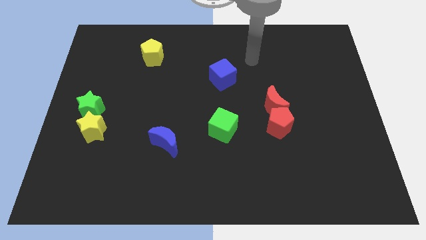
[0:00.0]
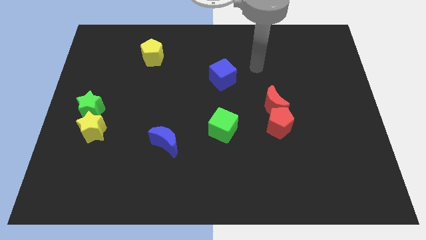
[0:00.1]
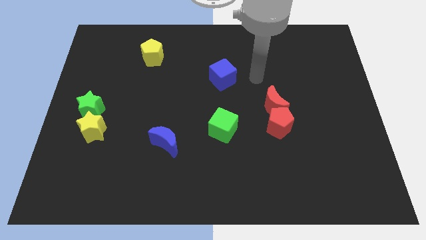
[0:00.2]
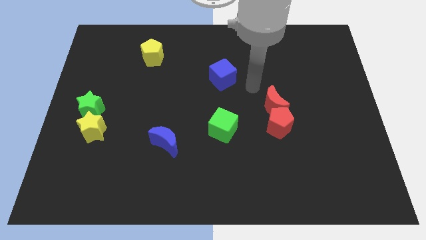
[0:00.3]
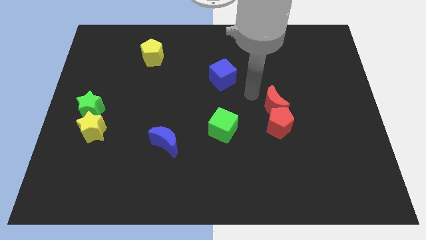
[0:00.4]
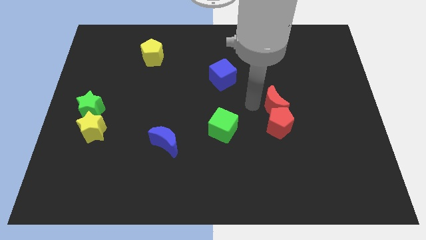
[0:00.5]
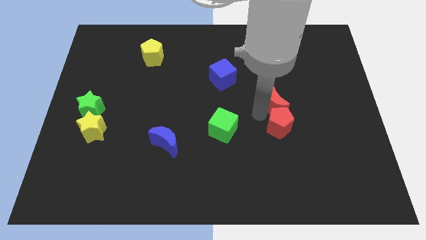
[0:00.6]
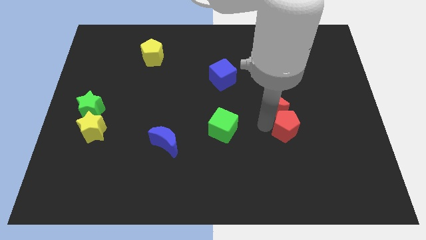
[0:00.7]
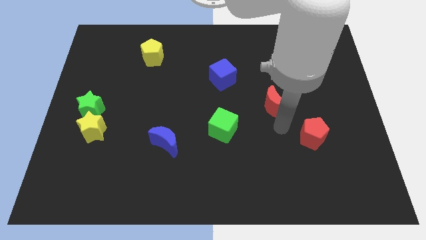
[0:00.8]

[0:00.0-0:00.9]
move the red moon away from the red pentagon

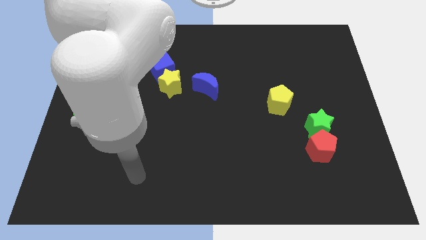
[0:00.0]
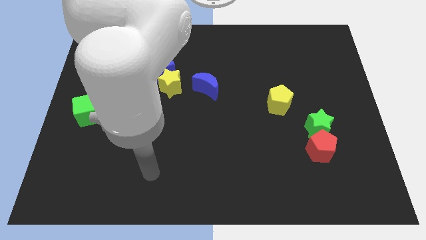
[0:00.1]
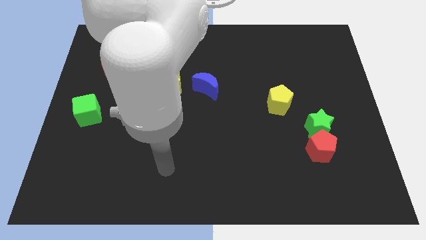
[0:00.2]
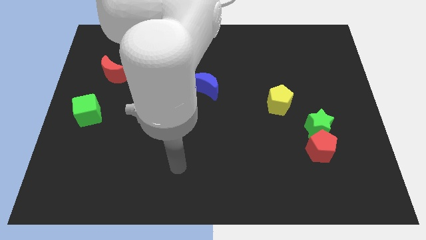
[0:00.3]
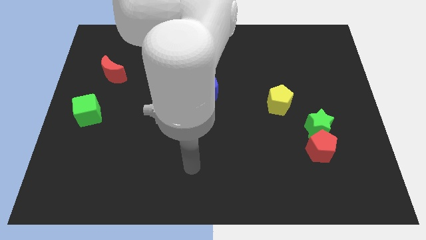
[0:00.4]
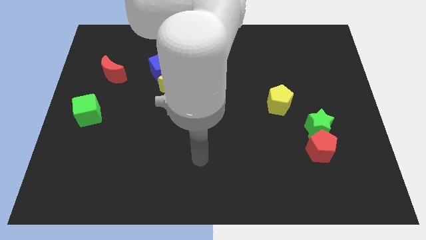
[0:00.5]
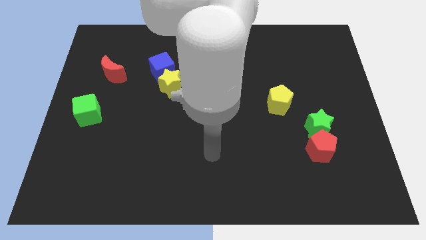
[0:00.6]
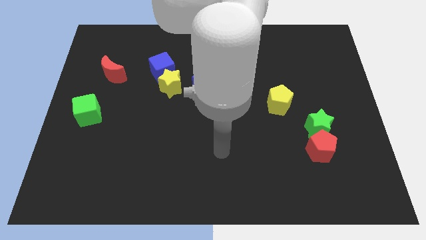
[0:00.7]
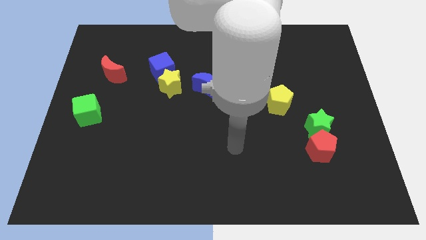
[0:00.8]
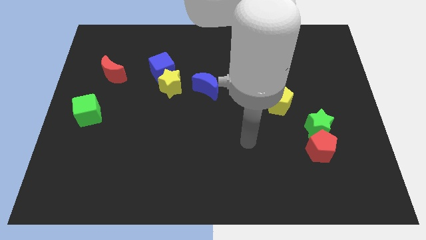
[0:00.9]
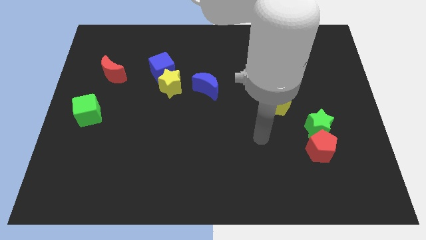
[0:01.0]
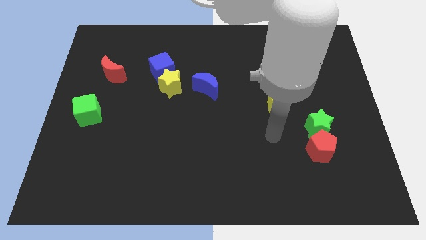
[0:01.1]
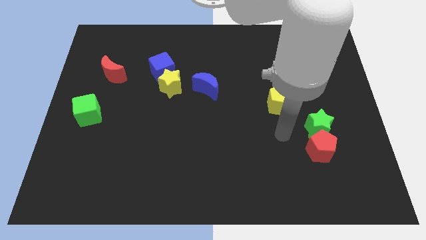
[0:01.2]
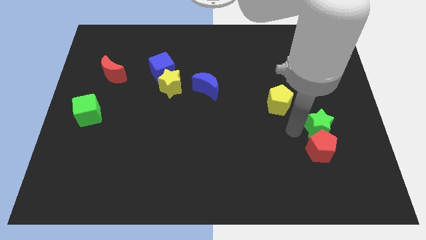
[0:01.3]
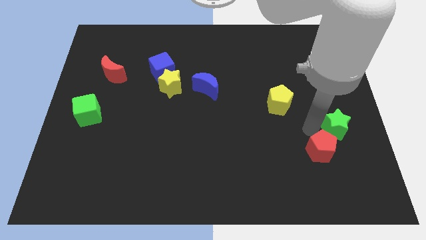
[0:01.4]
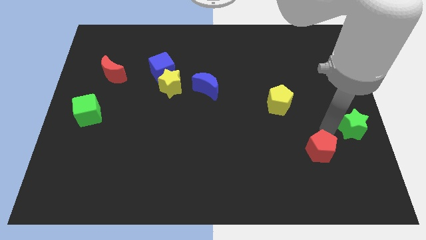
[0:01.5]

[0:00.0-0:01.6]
move the red pentagon away from the green star

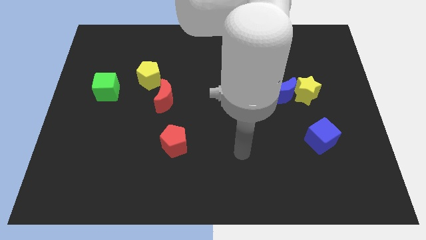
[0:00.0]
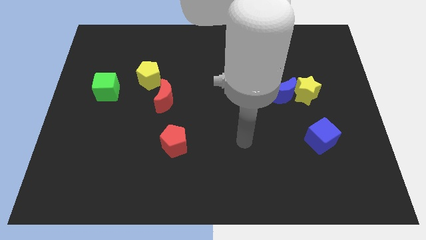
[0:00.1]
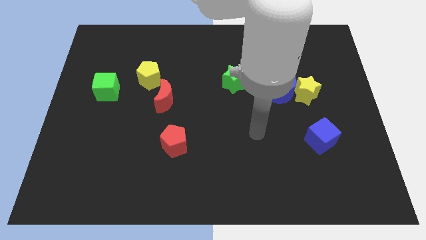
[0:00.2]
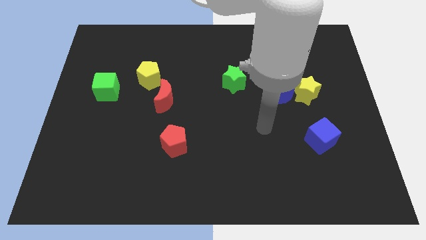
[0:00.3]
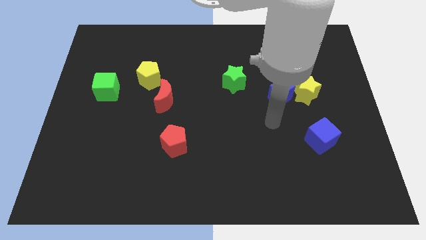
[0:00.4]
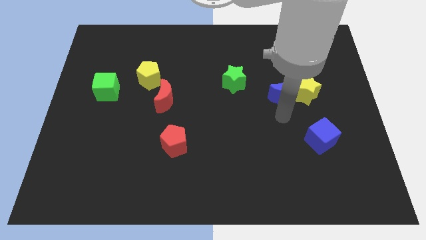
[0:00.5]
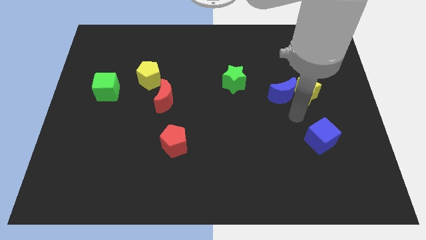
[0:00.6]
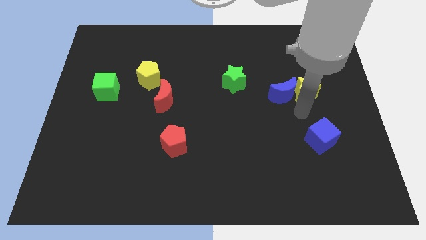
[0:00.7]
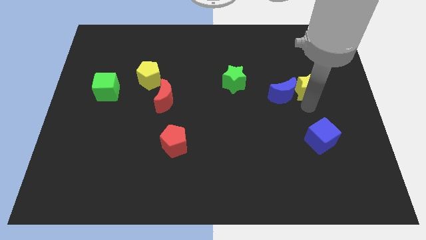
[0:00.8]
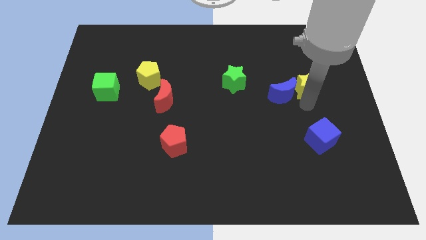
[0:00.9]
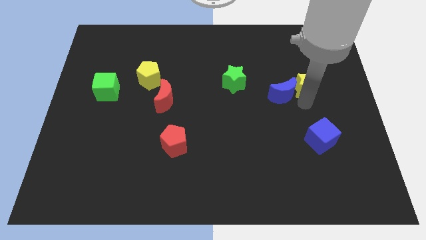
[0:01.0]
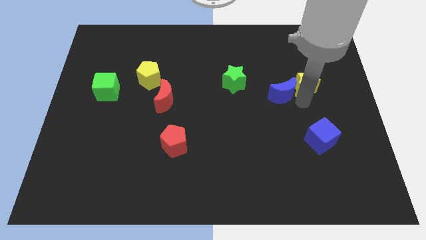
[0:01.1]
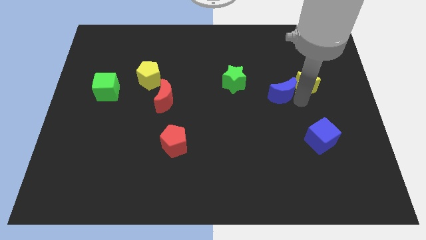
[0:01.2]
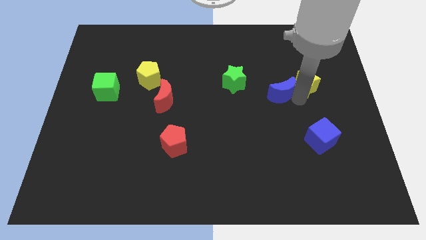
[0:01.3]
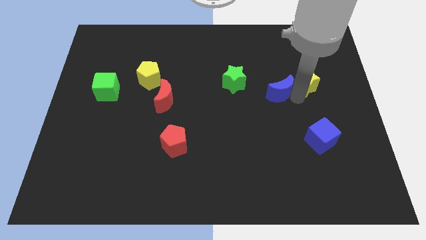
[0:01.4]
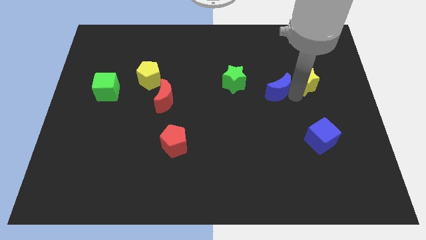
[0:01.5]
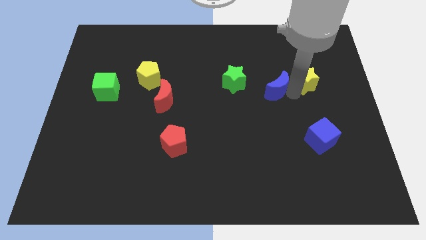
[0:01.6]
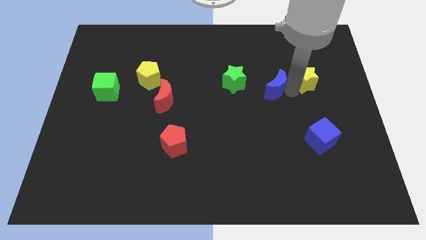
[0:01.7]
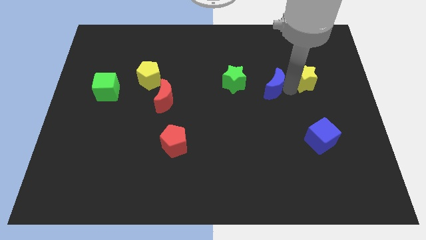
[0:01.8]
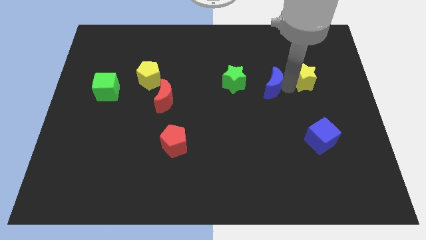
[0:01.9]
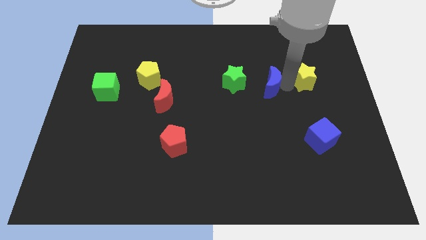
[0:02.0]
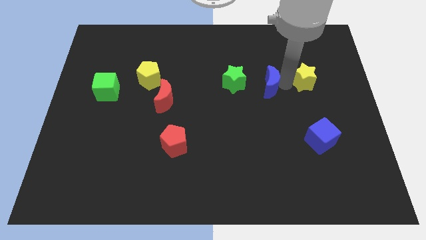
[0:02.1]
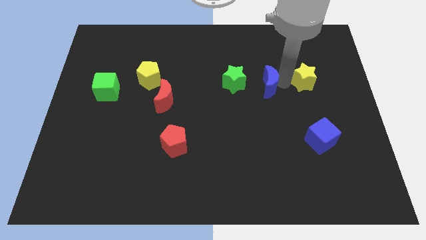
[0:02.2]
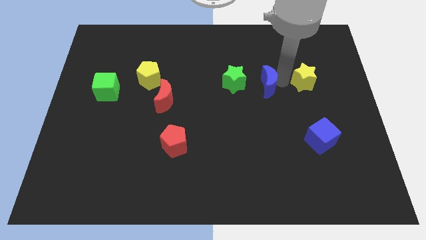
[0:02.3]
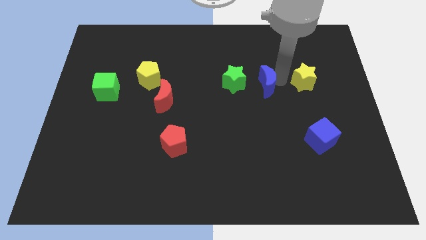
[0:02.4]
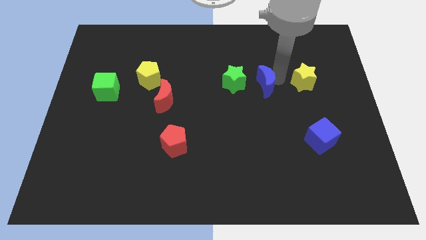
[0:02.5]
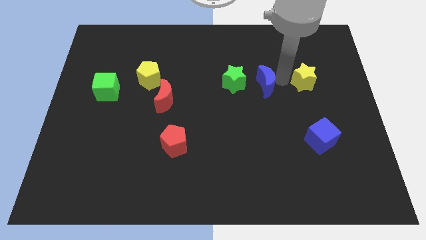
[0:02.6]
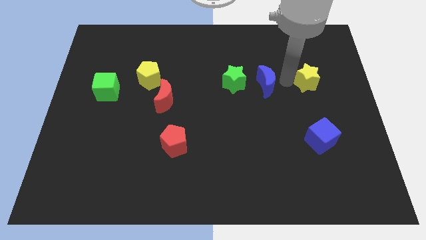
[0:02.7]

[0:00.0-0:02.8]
separate the blue moon from the yellow star

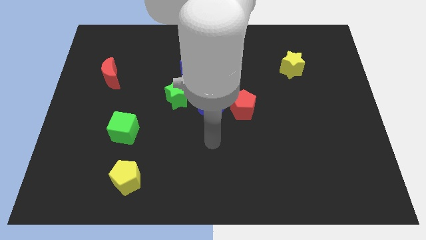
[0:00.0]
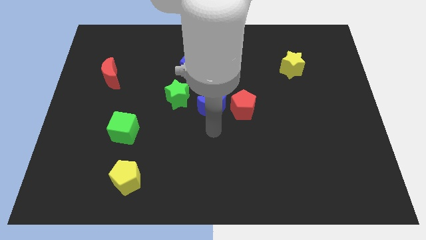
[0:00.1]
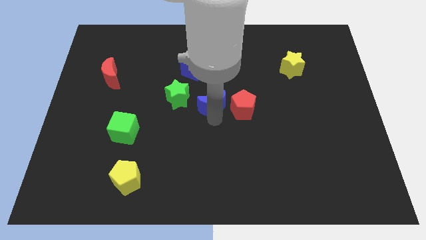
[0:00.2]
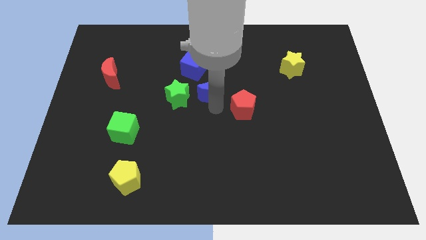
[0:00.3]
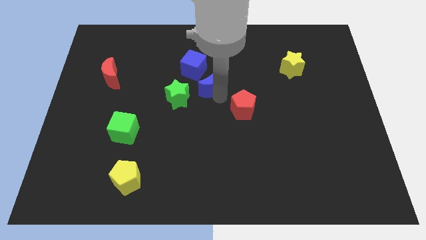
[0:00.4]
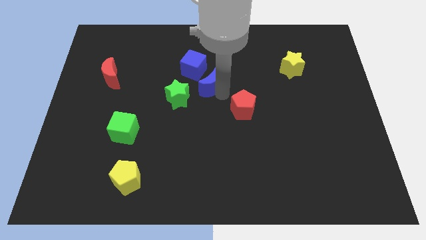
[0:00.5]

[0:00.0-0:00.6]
pull the red pentagon apart from the blue moon

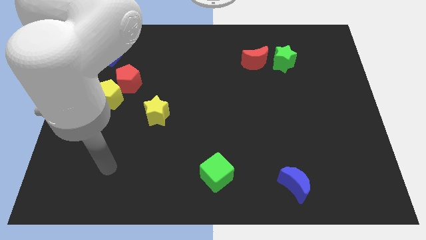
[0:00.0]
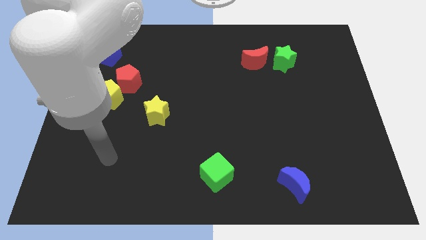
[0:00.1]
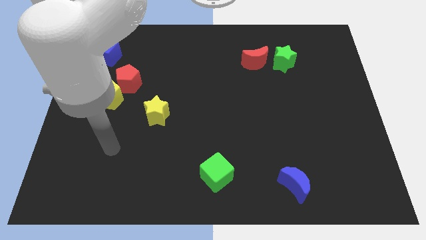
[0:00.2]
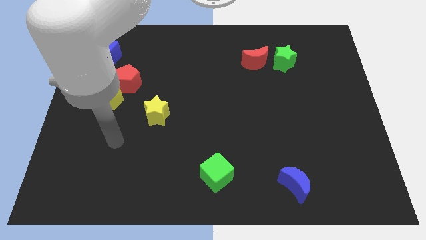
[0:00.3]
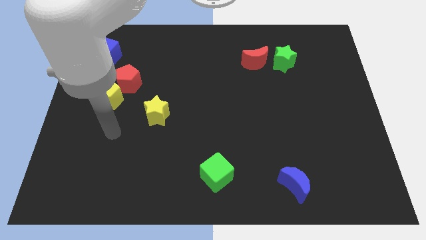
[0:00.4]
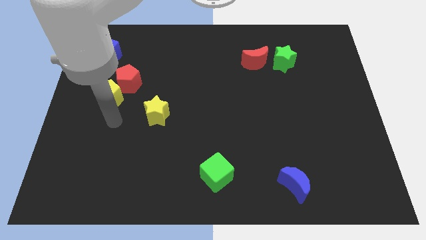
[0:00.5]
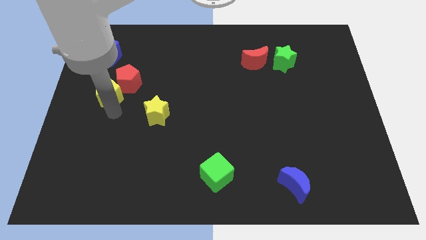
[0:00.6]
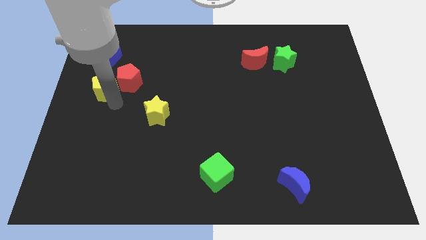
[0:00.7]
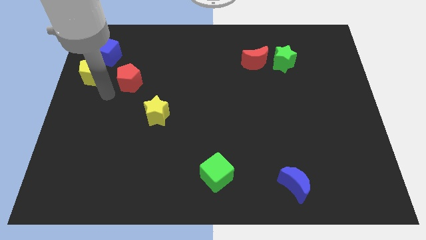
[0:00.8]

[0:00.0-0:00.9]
separate the red pentagon from the yellow pentagon

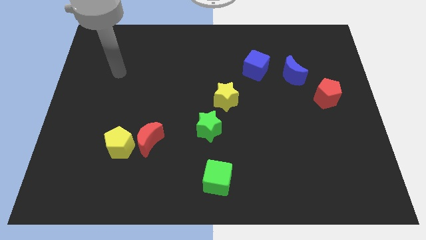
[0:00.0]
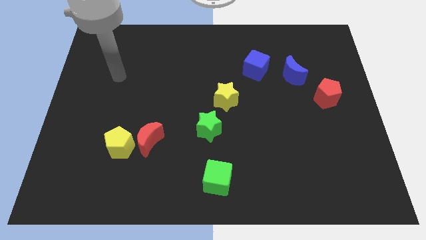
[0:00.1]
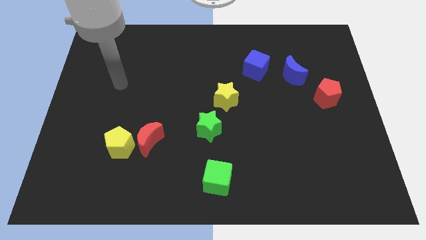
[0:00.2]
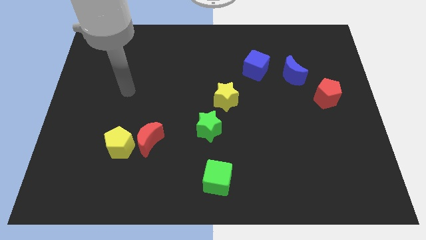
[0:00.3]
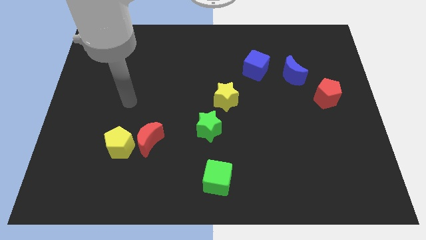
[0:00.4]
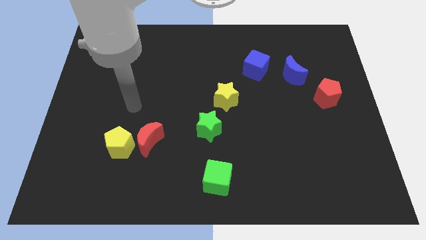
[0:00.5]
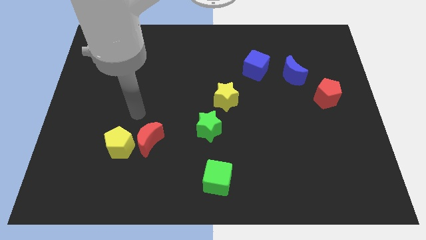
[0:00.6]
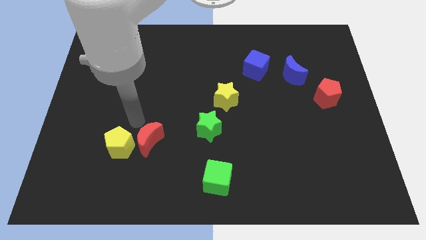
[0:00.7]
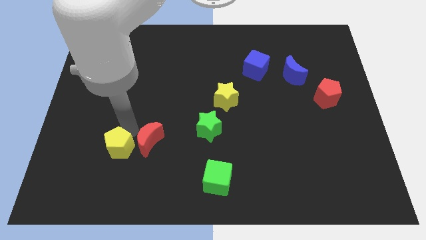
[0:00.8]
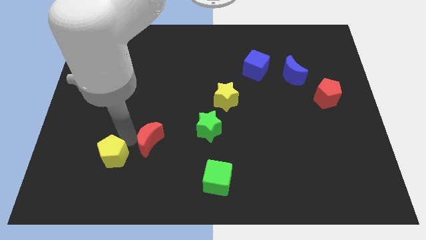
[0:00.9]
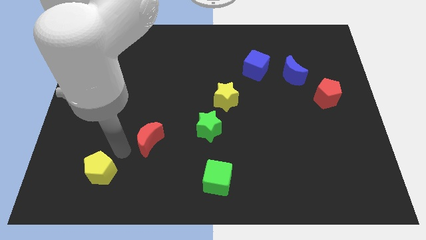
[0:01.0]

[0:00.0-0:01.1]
separate the red moon from the yellow pentagon

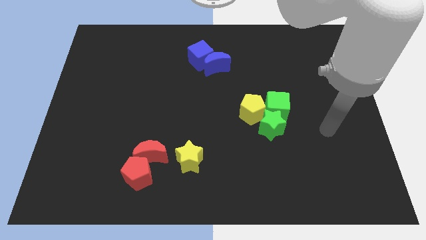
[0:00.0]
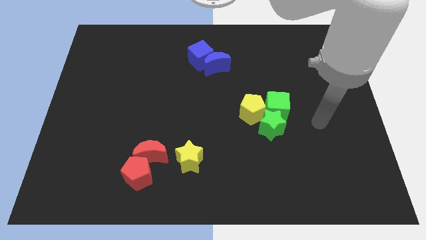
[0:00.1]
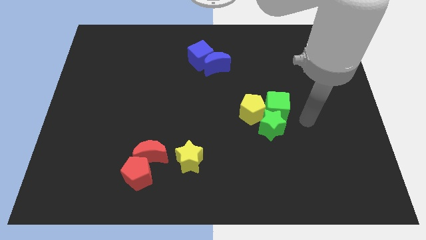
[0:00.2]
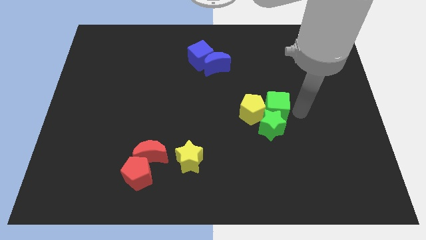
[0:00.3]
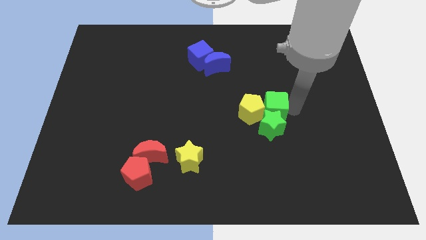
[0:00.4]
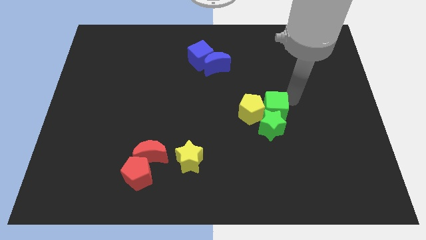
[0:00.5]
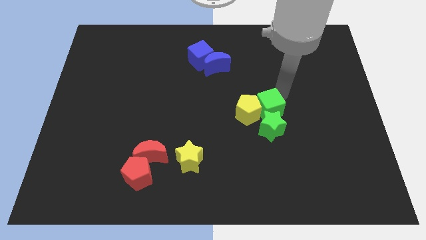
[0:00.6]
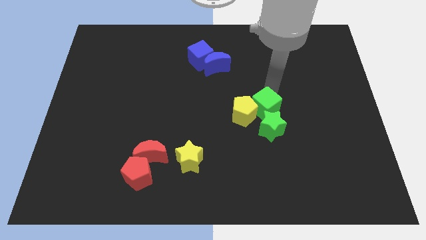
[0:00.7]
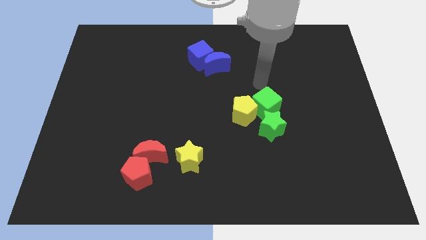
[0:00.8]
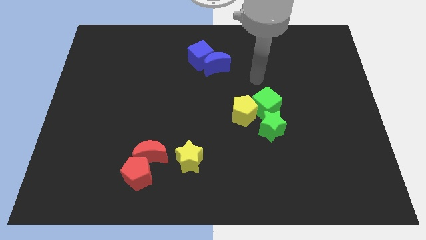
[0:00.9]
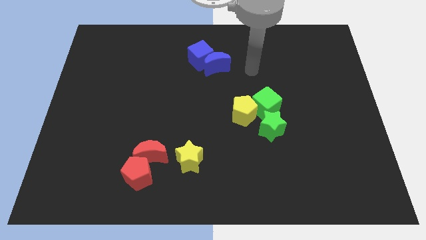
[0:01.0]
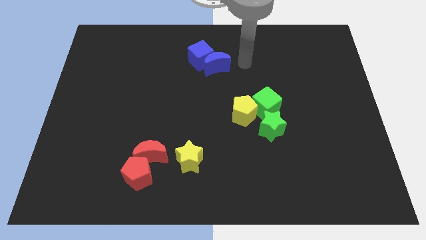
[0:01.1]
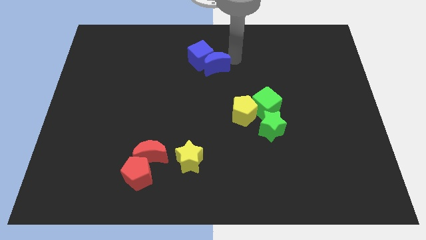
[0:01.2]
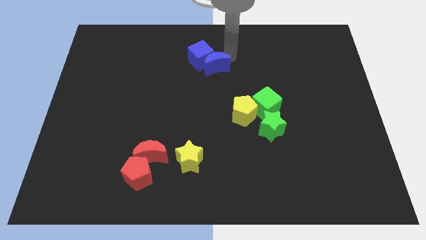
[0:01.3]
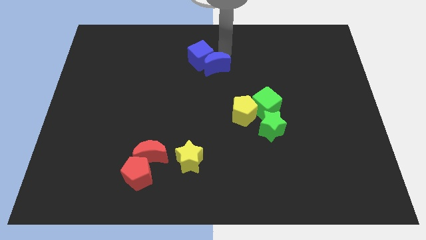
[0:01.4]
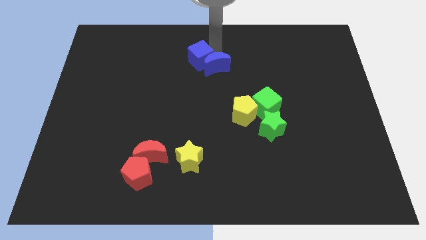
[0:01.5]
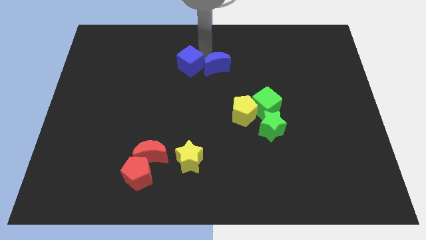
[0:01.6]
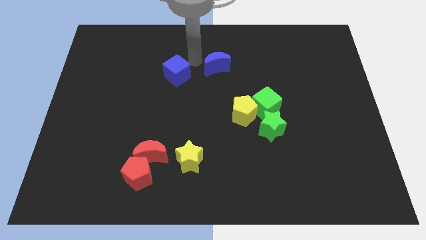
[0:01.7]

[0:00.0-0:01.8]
pull the blue moon apart from the blue cube
